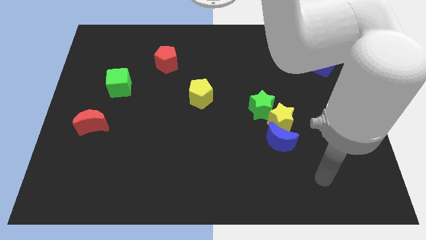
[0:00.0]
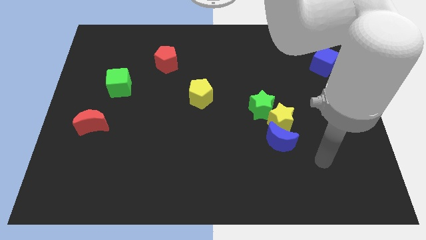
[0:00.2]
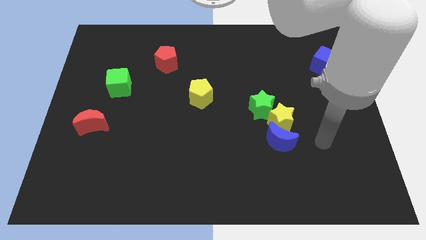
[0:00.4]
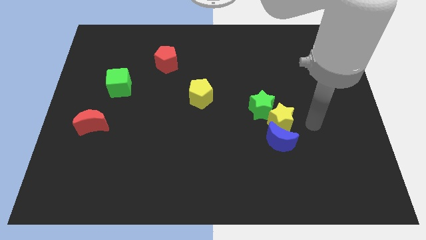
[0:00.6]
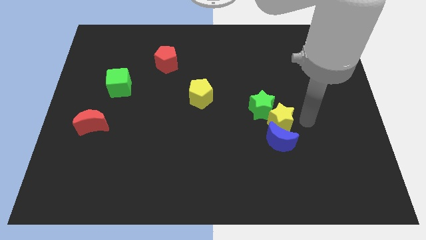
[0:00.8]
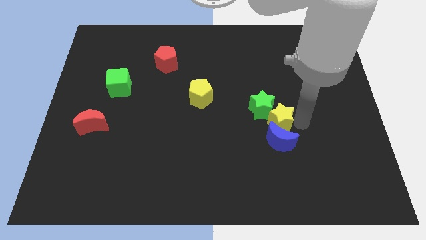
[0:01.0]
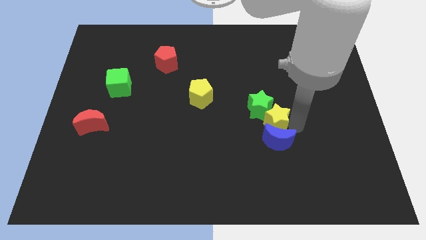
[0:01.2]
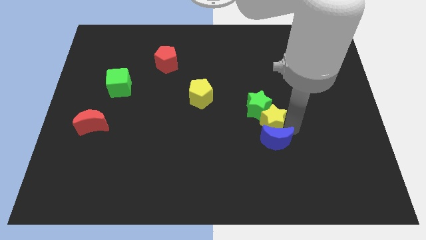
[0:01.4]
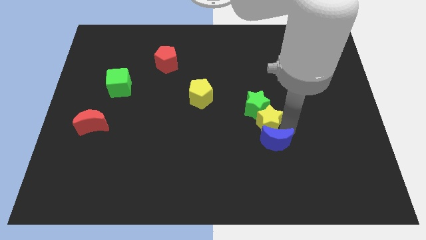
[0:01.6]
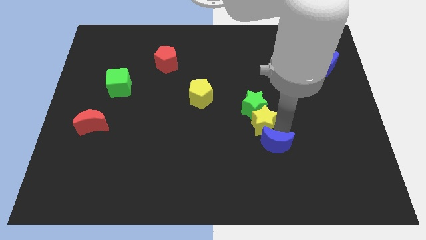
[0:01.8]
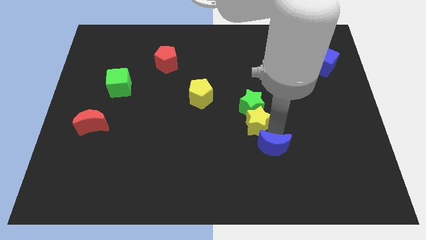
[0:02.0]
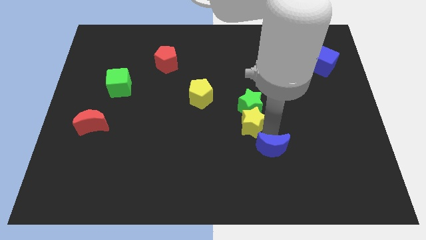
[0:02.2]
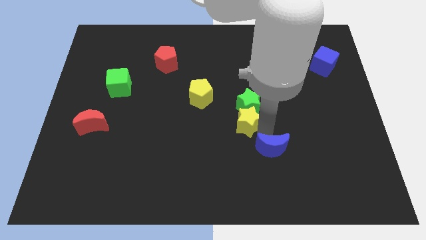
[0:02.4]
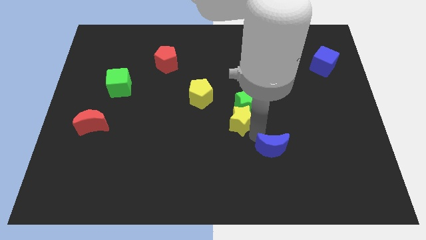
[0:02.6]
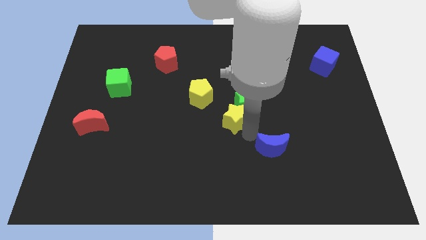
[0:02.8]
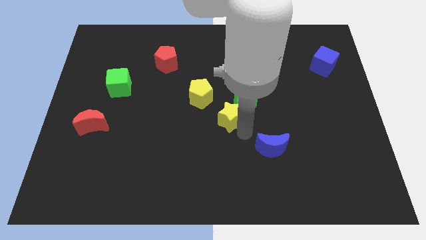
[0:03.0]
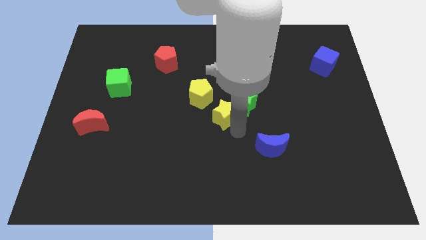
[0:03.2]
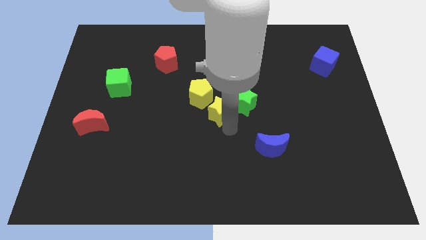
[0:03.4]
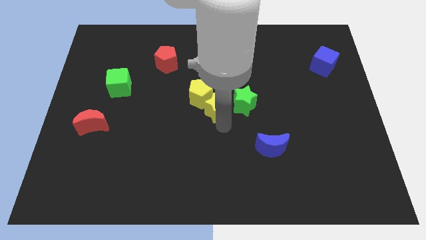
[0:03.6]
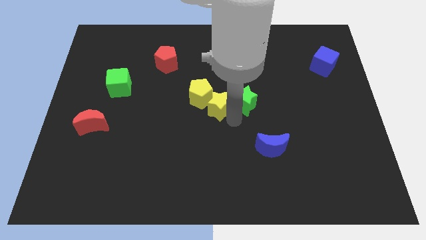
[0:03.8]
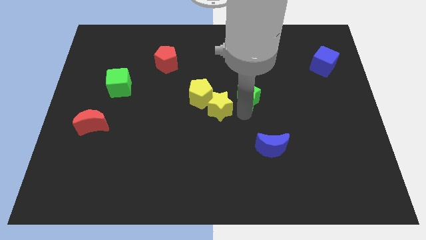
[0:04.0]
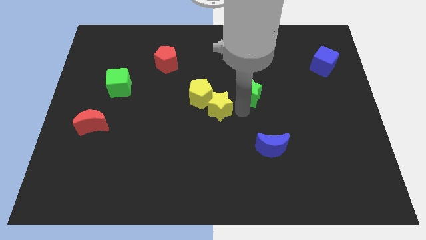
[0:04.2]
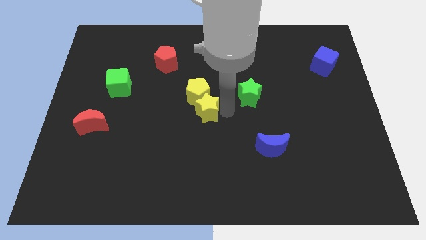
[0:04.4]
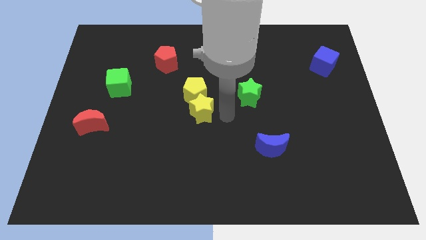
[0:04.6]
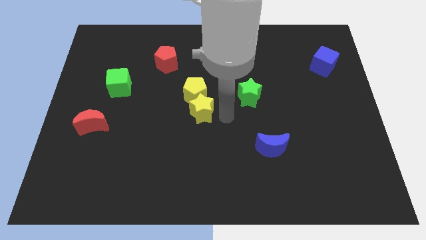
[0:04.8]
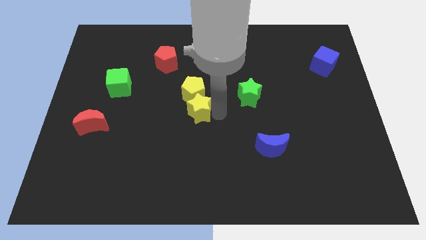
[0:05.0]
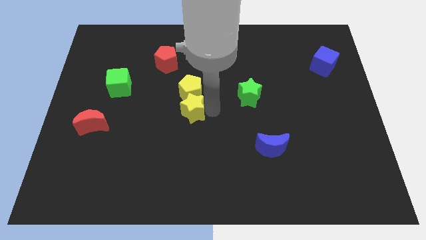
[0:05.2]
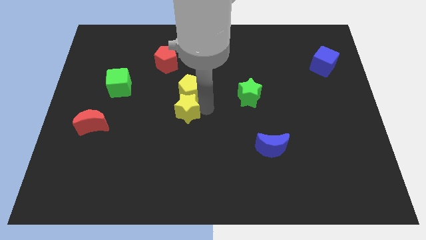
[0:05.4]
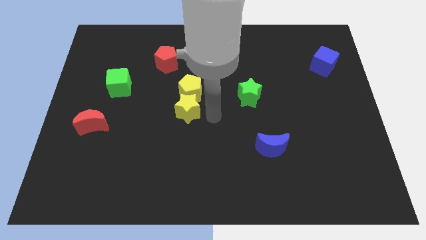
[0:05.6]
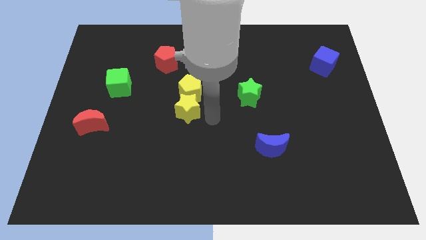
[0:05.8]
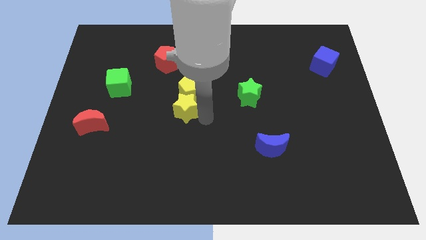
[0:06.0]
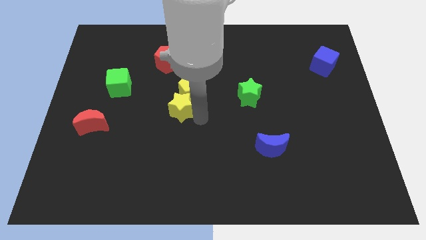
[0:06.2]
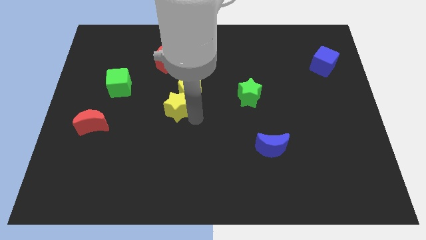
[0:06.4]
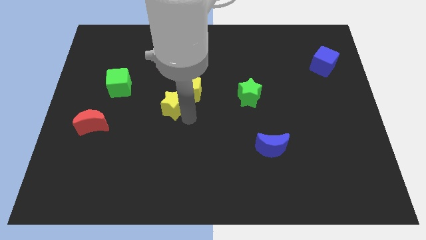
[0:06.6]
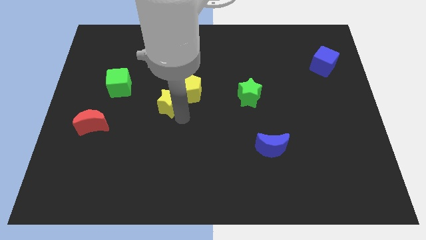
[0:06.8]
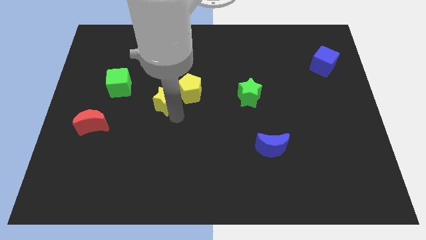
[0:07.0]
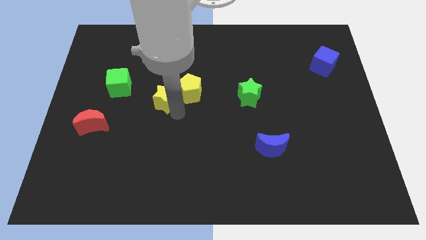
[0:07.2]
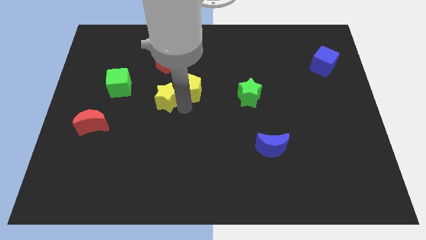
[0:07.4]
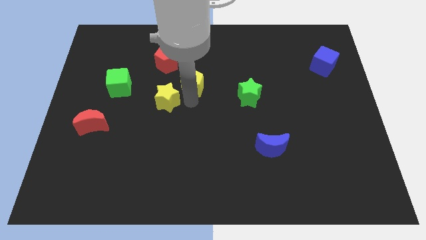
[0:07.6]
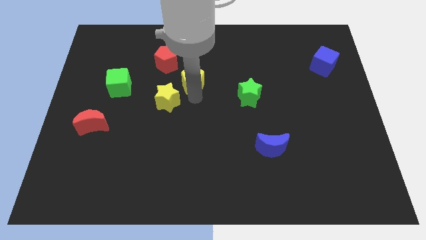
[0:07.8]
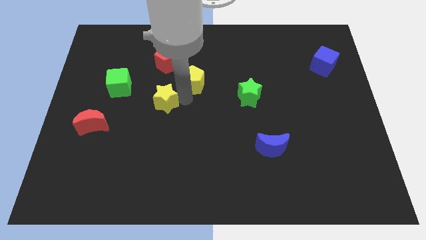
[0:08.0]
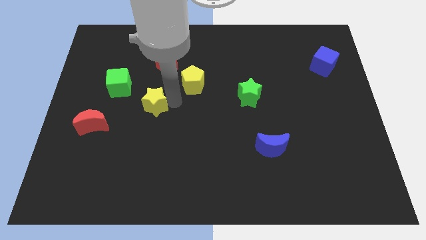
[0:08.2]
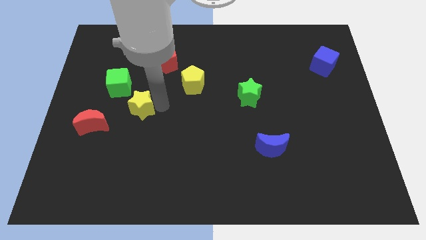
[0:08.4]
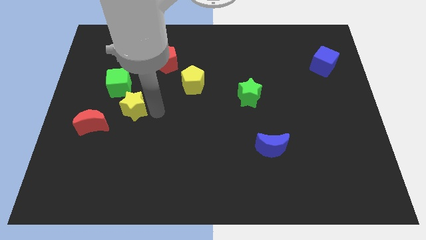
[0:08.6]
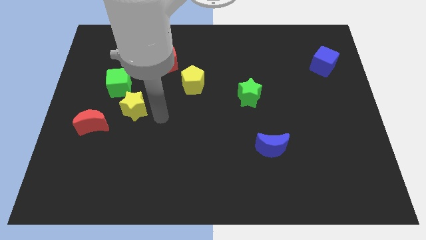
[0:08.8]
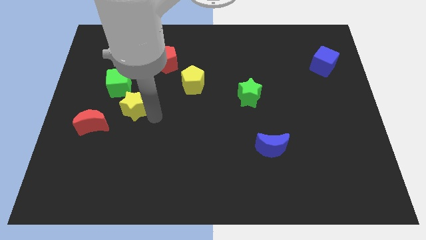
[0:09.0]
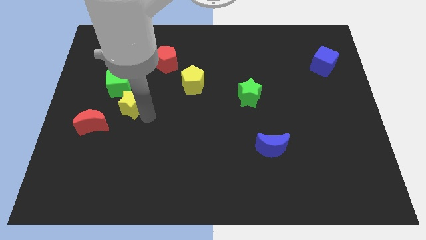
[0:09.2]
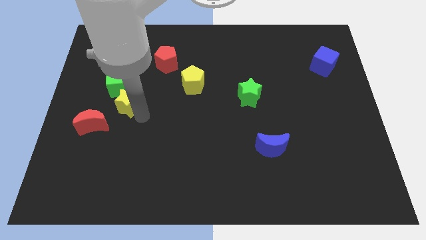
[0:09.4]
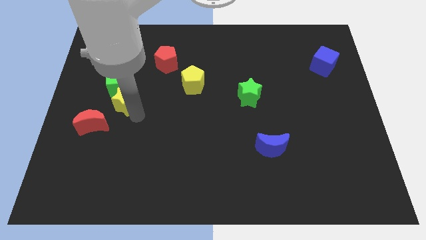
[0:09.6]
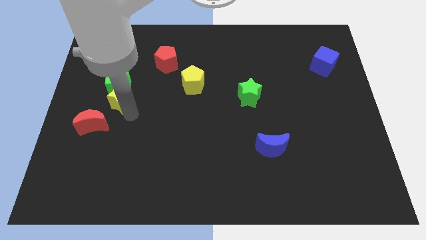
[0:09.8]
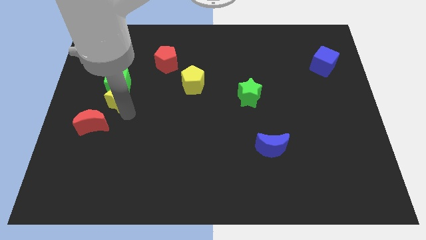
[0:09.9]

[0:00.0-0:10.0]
push the yellow star above the red moon

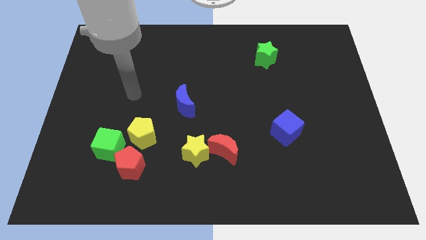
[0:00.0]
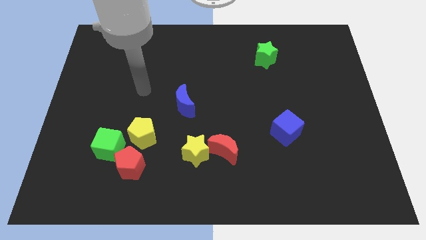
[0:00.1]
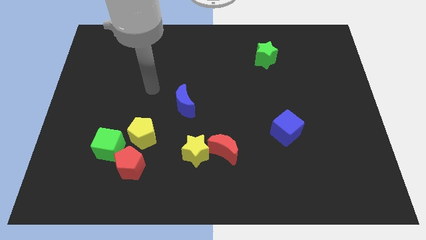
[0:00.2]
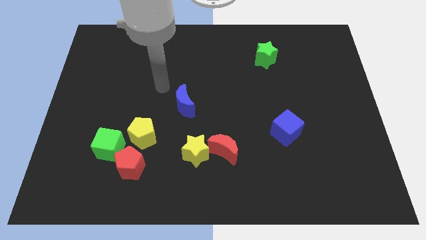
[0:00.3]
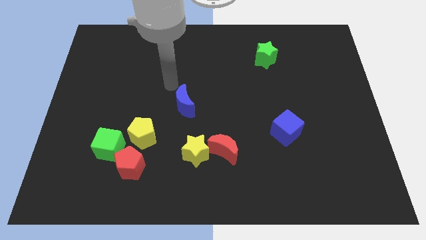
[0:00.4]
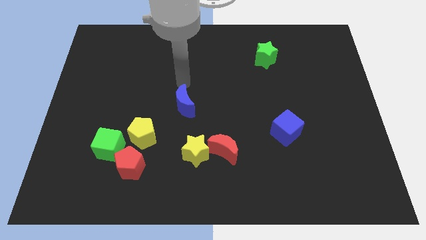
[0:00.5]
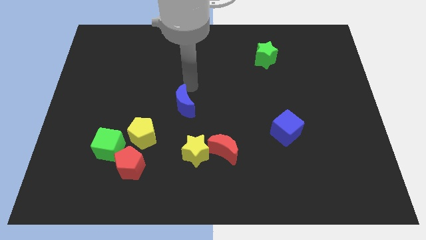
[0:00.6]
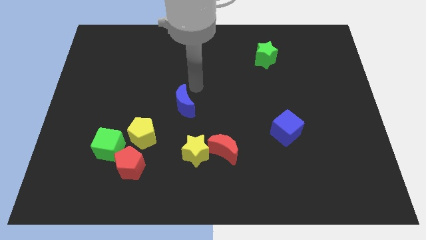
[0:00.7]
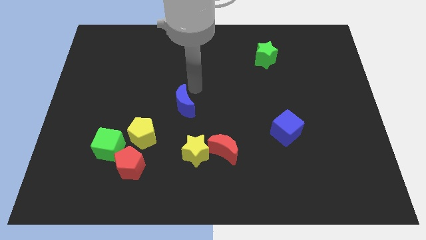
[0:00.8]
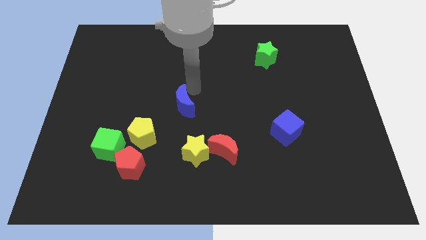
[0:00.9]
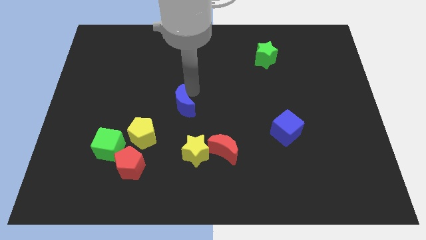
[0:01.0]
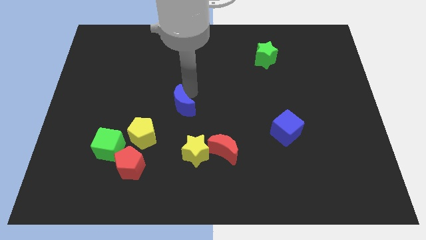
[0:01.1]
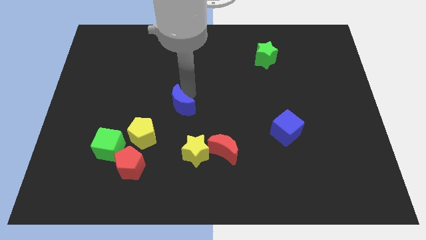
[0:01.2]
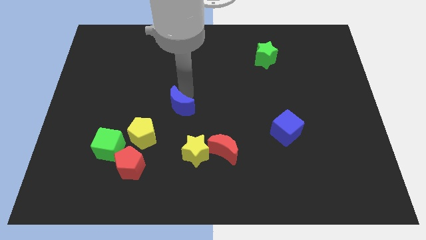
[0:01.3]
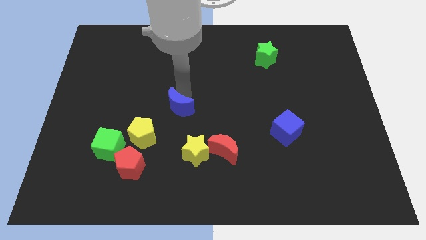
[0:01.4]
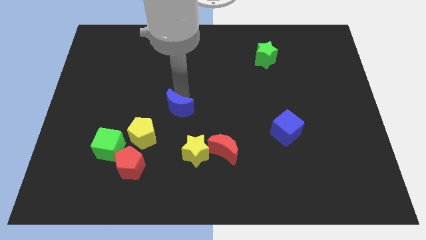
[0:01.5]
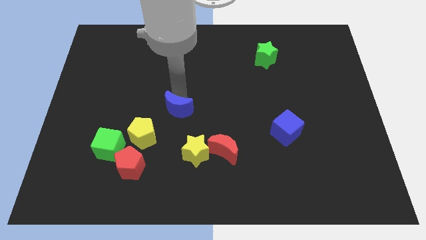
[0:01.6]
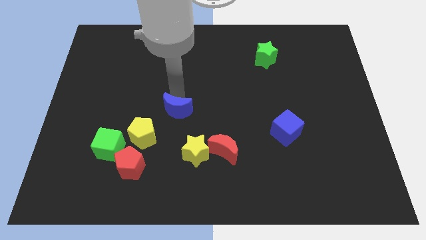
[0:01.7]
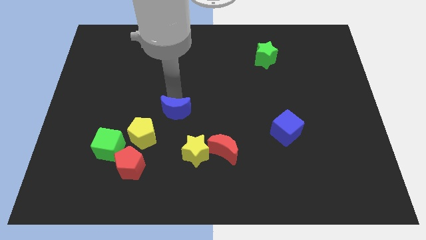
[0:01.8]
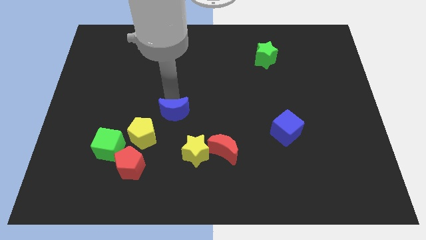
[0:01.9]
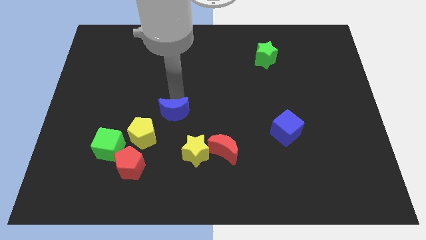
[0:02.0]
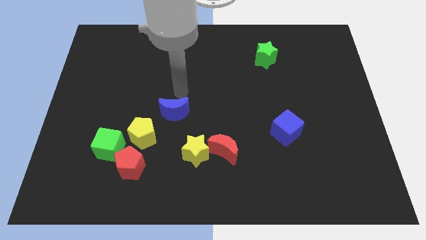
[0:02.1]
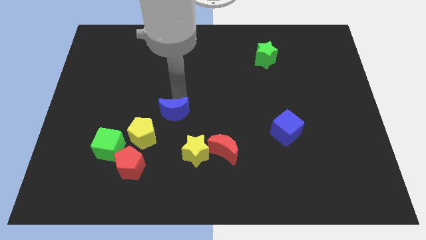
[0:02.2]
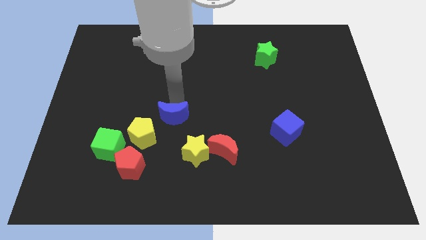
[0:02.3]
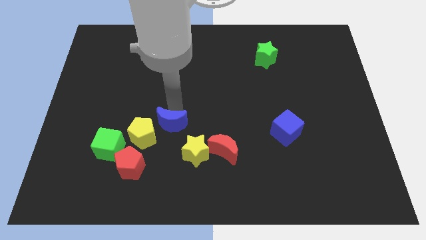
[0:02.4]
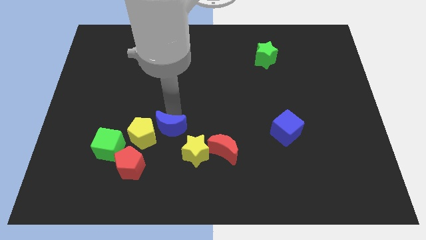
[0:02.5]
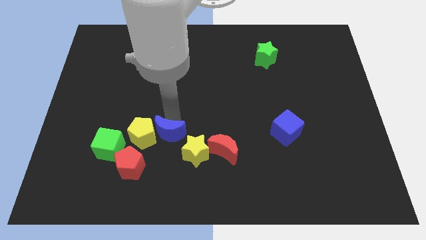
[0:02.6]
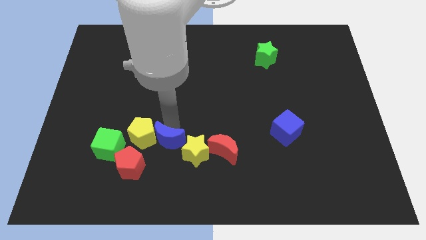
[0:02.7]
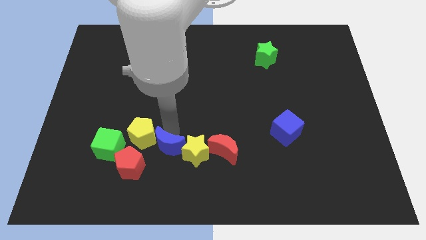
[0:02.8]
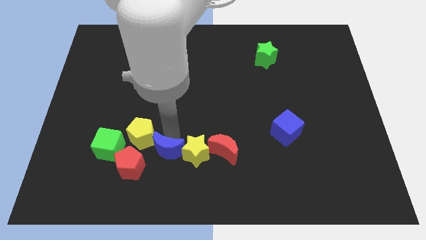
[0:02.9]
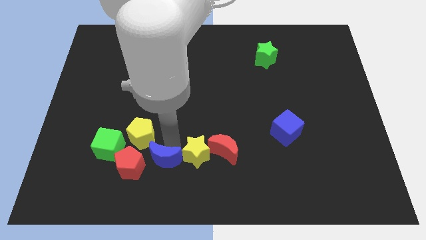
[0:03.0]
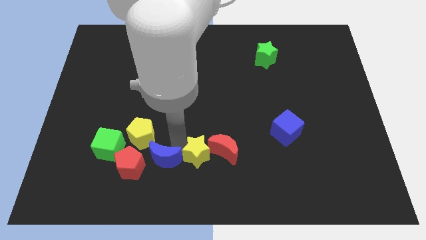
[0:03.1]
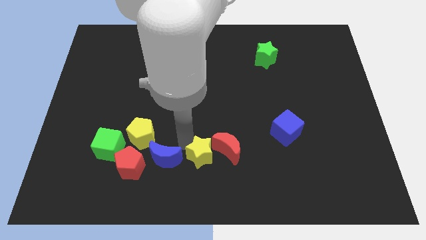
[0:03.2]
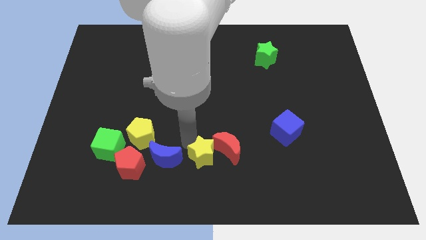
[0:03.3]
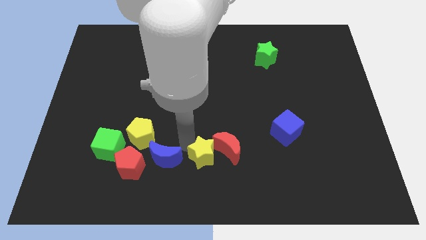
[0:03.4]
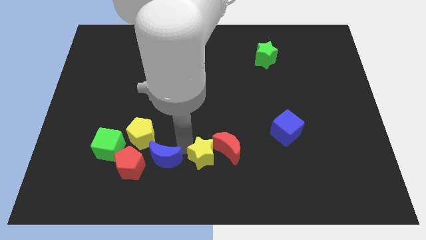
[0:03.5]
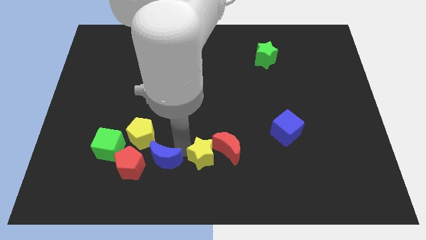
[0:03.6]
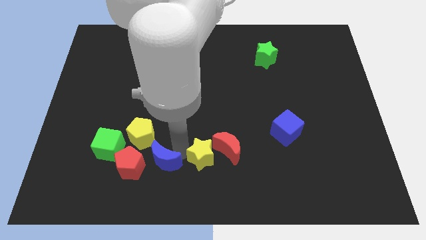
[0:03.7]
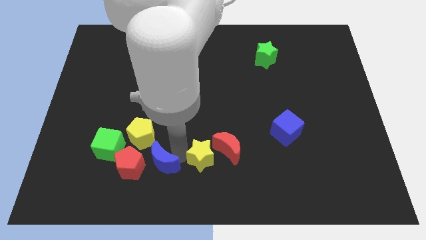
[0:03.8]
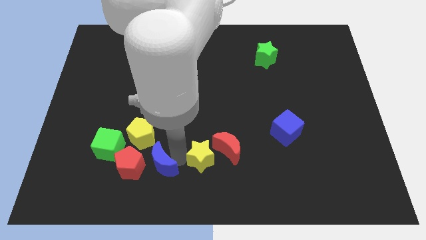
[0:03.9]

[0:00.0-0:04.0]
slide the blue moon to the bottom side of the yellow pentagon
